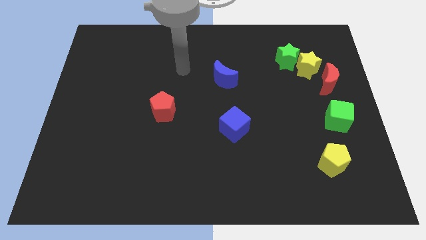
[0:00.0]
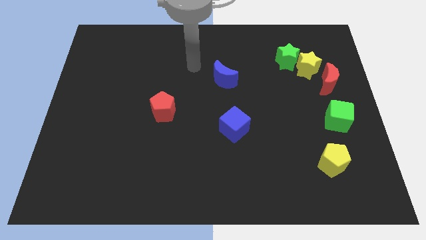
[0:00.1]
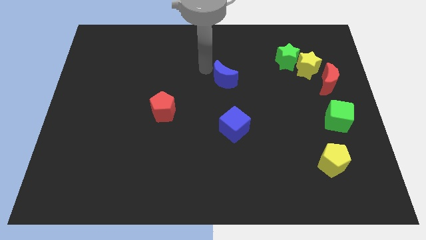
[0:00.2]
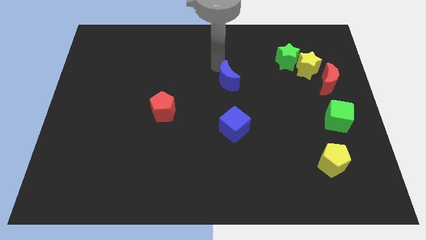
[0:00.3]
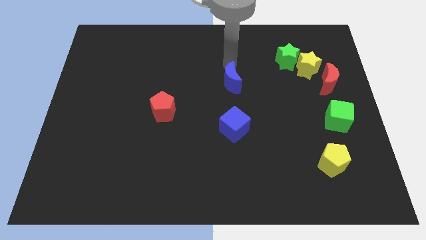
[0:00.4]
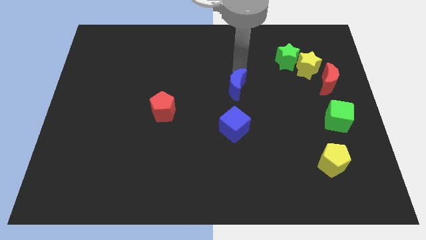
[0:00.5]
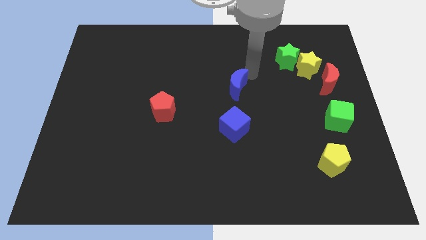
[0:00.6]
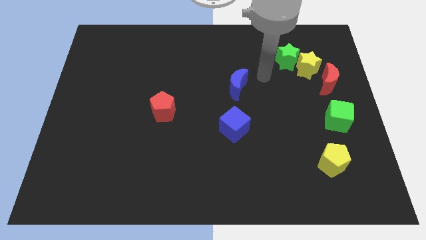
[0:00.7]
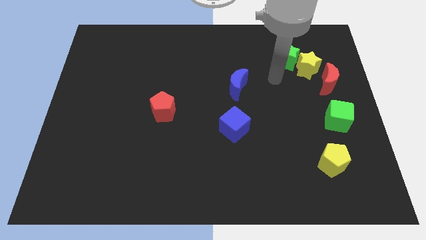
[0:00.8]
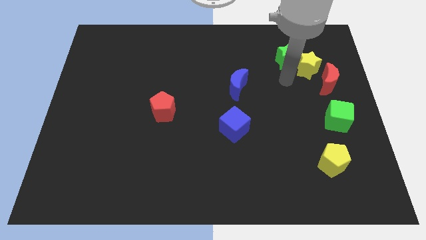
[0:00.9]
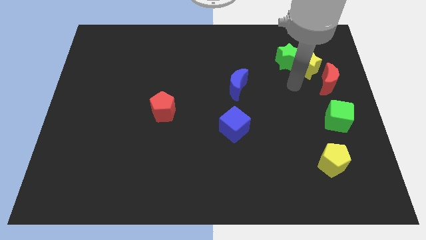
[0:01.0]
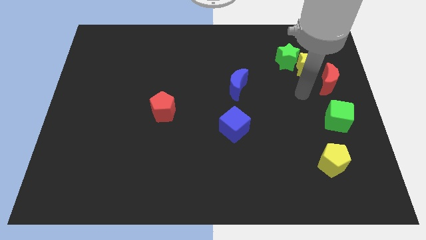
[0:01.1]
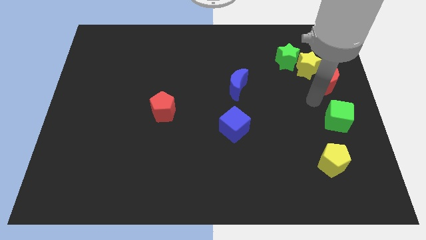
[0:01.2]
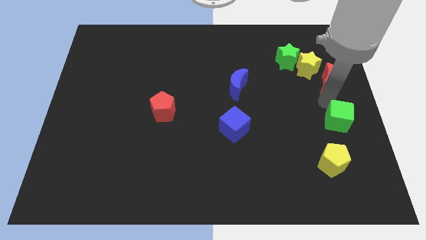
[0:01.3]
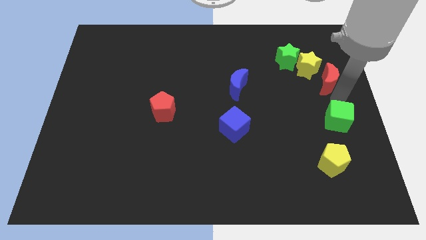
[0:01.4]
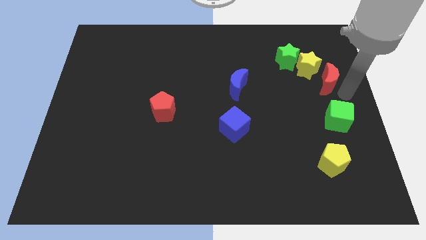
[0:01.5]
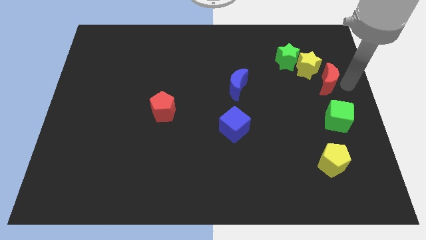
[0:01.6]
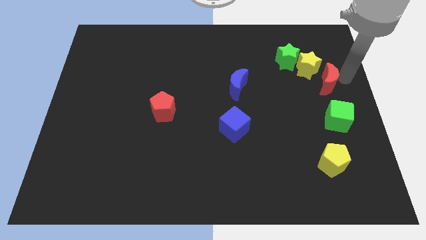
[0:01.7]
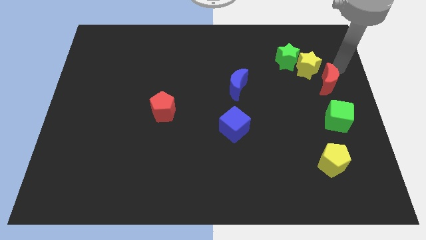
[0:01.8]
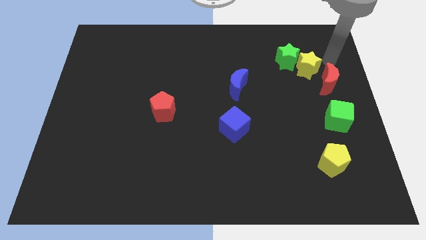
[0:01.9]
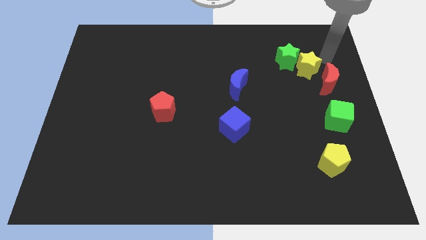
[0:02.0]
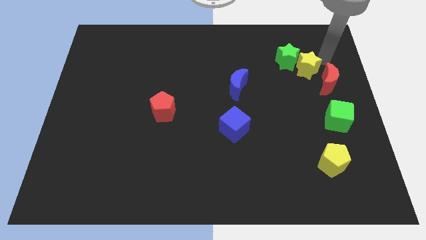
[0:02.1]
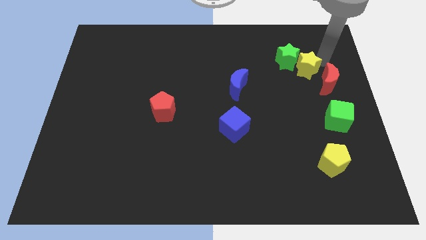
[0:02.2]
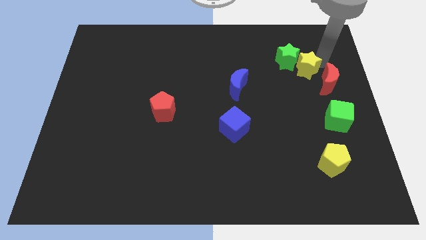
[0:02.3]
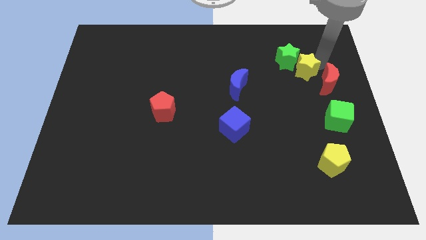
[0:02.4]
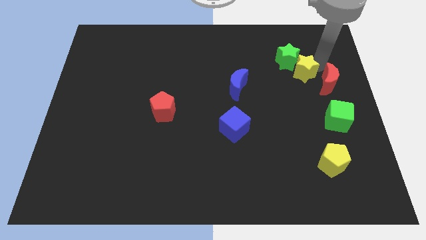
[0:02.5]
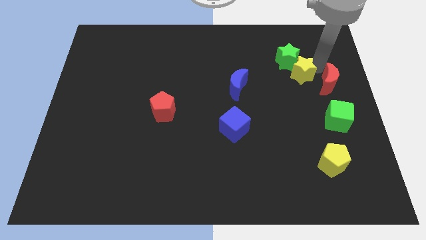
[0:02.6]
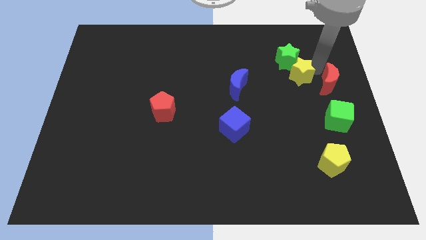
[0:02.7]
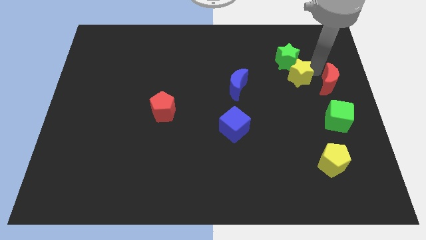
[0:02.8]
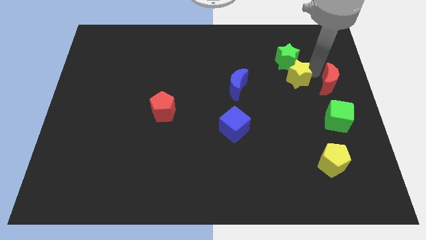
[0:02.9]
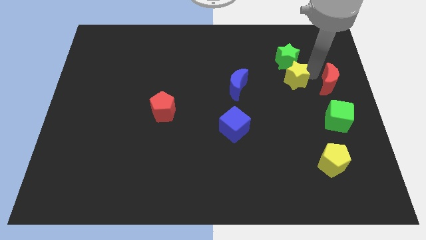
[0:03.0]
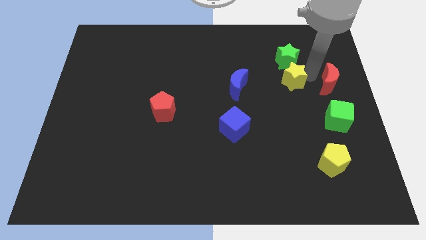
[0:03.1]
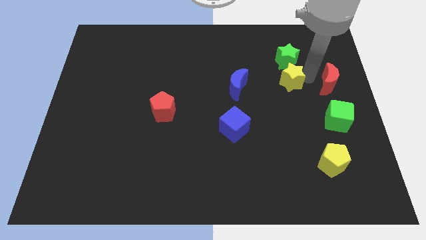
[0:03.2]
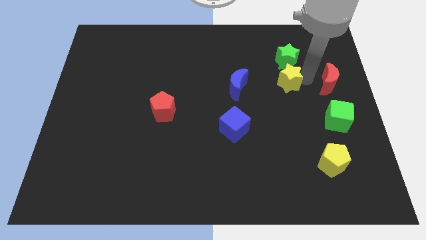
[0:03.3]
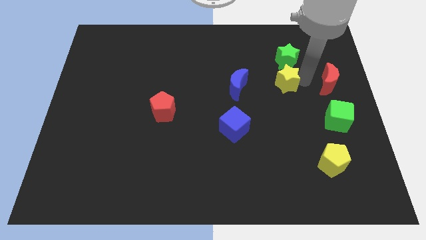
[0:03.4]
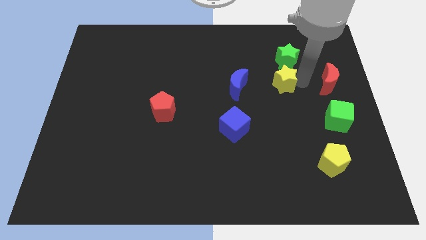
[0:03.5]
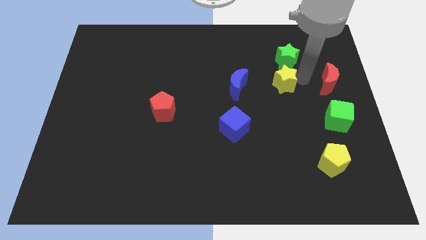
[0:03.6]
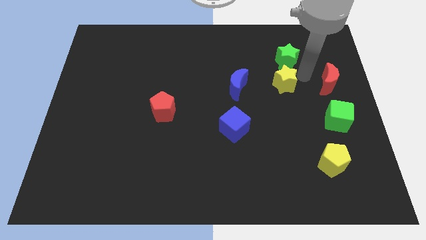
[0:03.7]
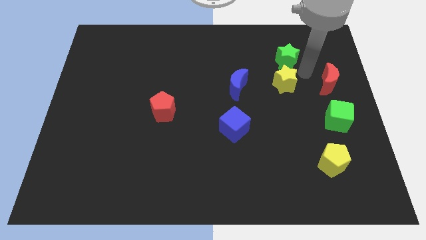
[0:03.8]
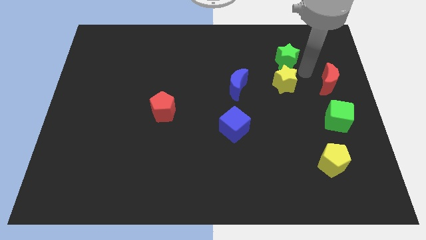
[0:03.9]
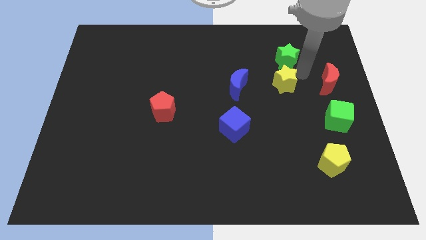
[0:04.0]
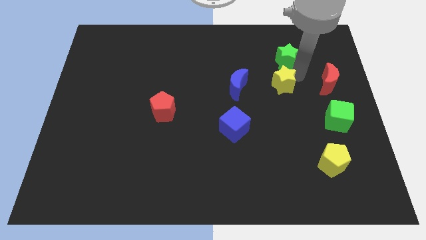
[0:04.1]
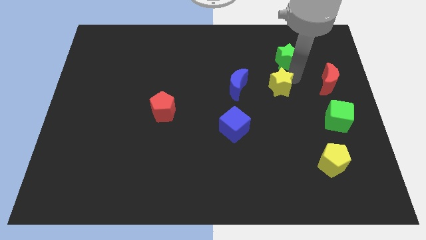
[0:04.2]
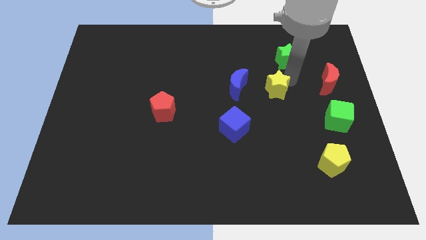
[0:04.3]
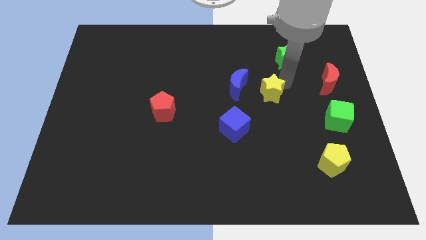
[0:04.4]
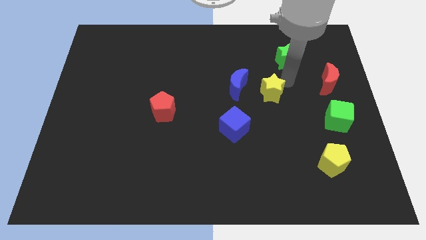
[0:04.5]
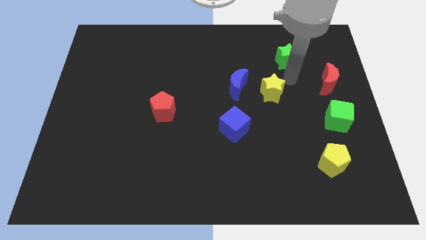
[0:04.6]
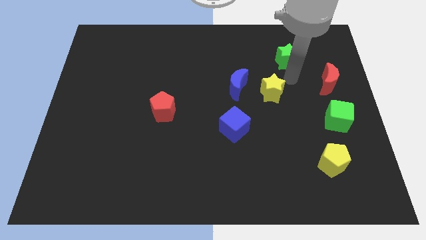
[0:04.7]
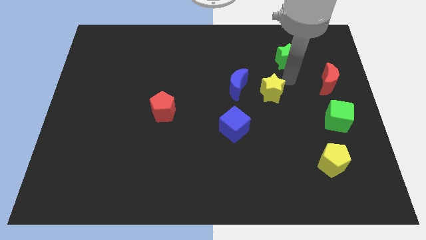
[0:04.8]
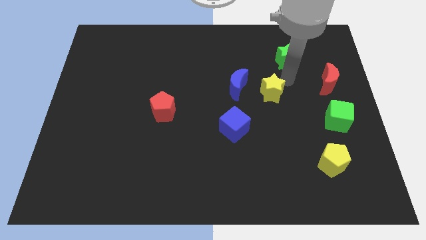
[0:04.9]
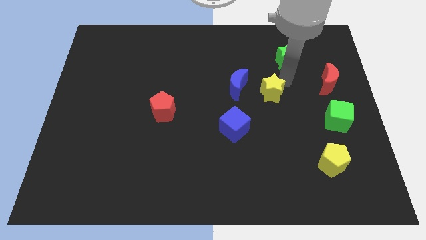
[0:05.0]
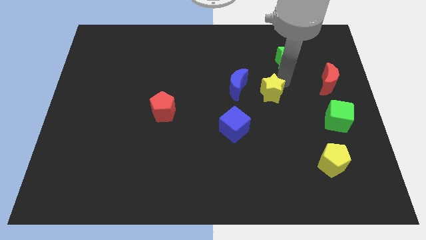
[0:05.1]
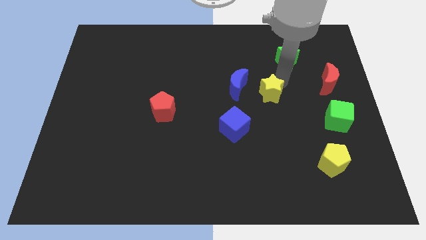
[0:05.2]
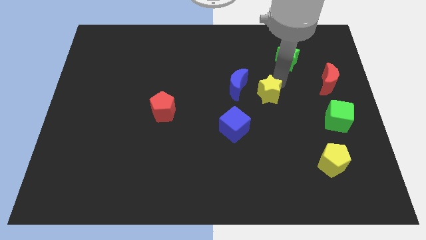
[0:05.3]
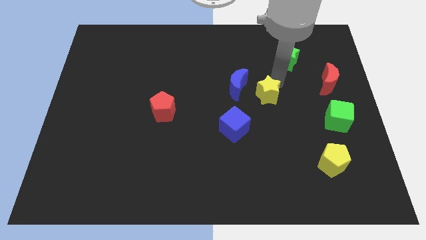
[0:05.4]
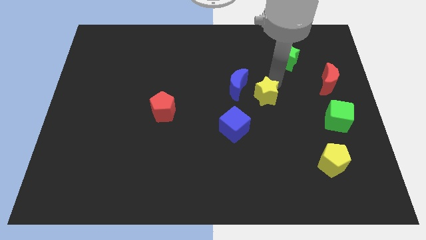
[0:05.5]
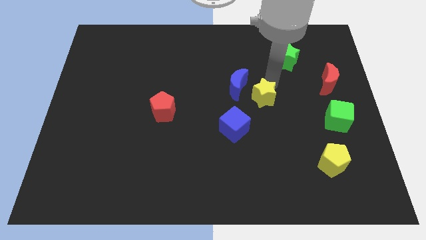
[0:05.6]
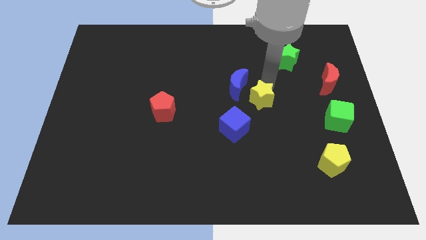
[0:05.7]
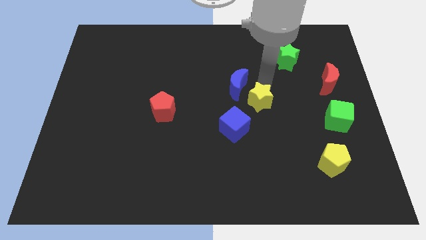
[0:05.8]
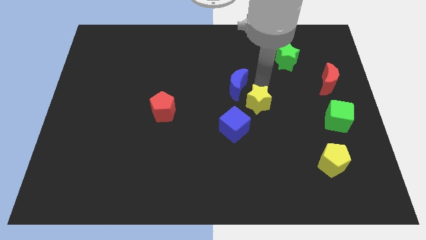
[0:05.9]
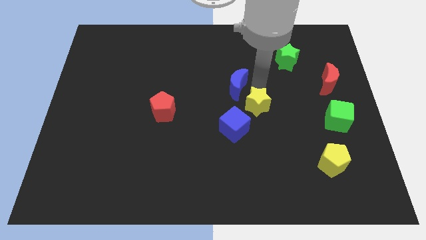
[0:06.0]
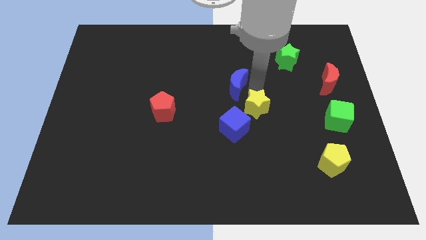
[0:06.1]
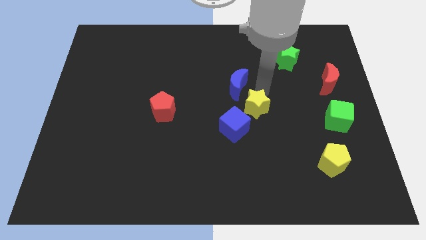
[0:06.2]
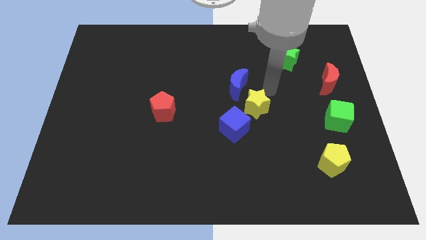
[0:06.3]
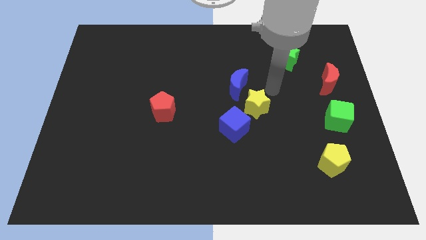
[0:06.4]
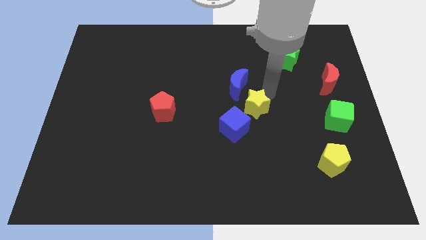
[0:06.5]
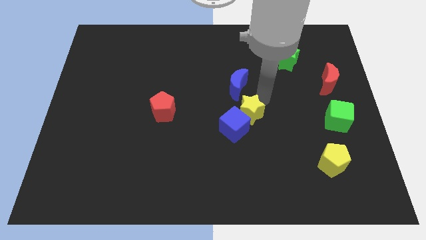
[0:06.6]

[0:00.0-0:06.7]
put the yellow star towards the blue cube
